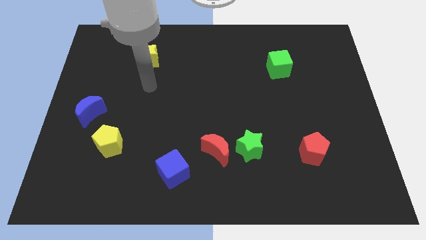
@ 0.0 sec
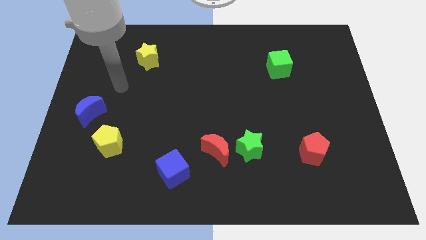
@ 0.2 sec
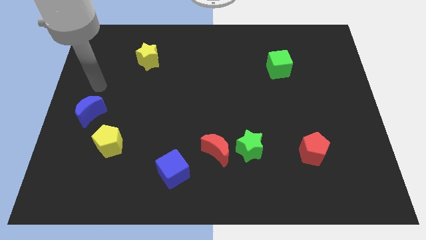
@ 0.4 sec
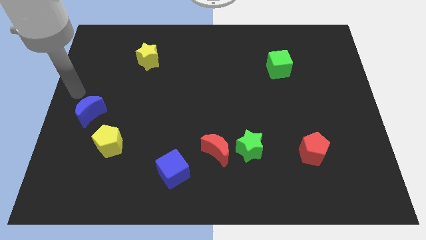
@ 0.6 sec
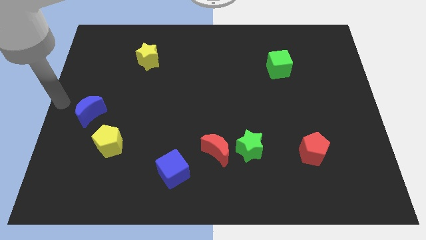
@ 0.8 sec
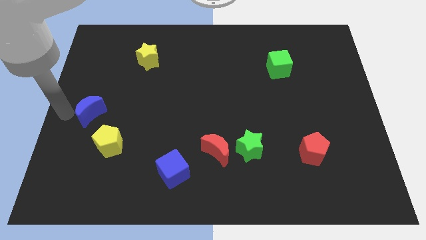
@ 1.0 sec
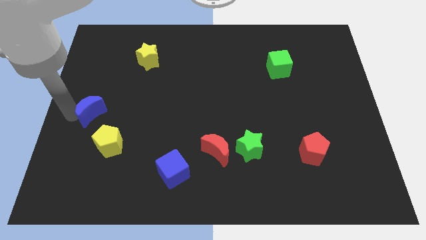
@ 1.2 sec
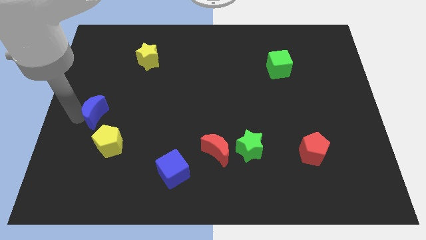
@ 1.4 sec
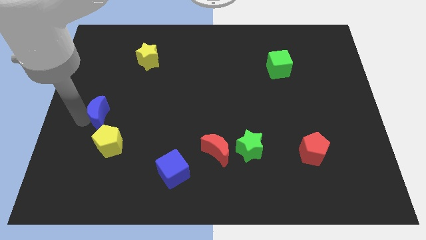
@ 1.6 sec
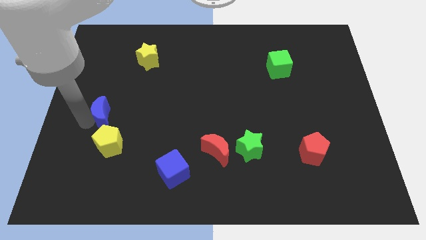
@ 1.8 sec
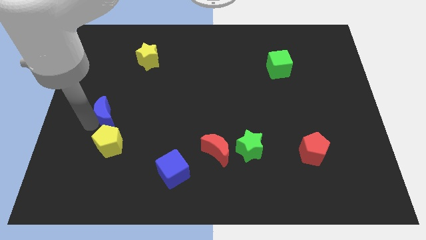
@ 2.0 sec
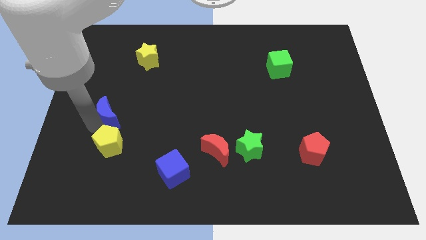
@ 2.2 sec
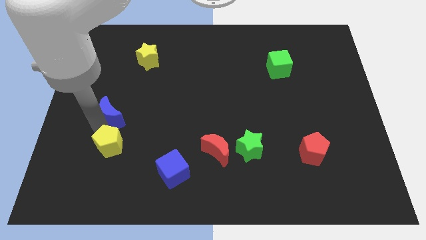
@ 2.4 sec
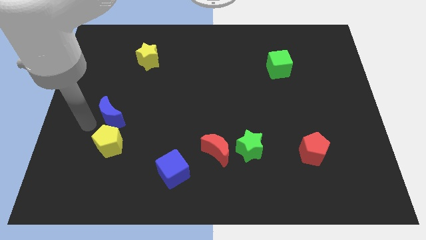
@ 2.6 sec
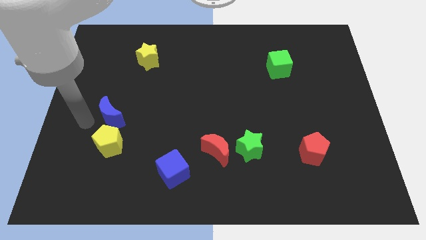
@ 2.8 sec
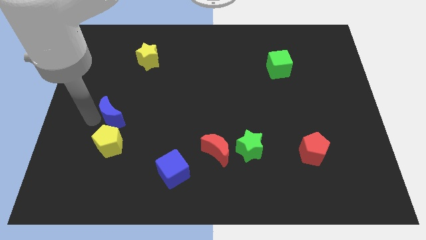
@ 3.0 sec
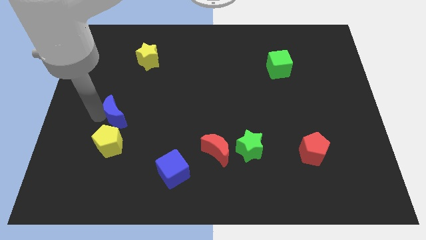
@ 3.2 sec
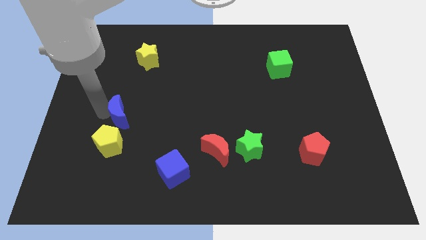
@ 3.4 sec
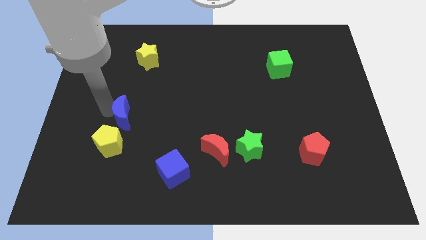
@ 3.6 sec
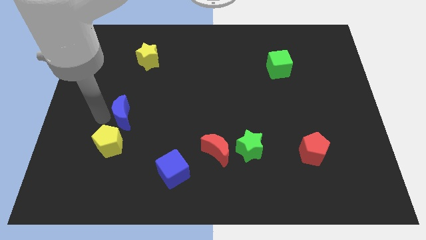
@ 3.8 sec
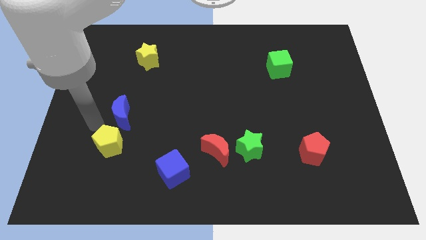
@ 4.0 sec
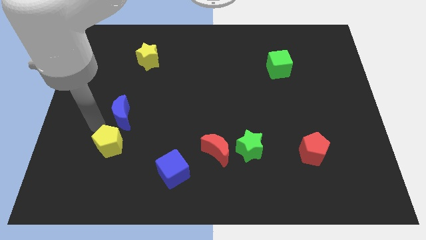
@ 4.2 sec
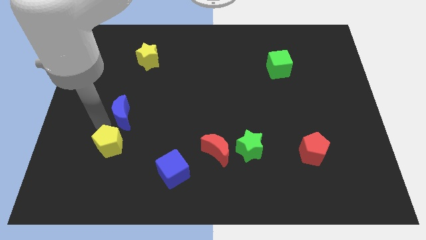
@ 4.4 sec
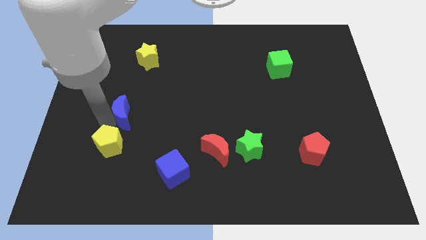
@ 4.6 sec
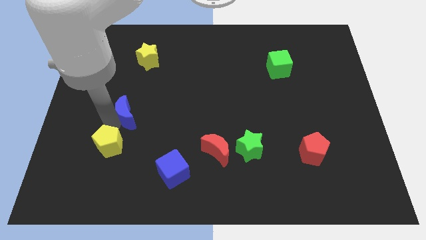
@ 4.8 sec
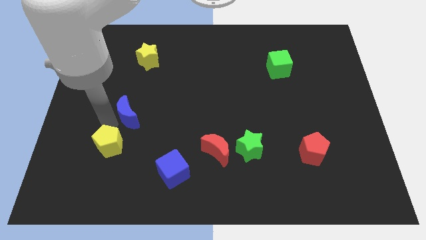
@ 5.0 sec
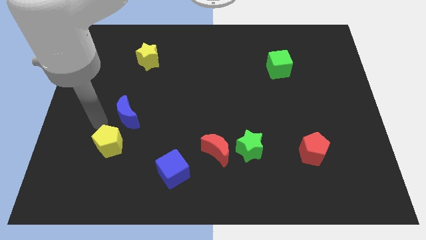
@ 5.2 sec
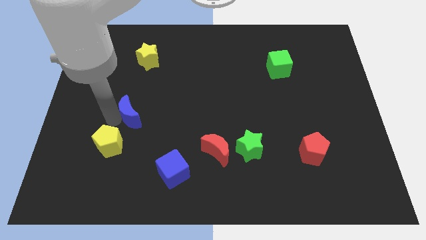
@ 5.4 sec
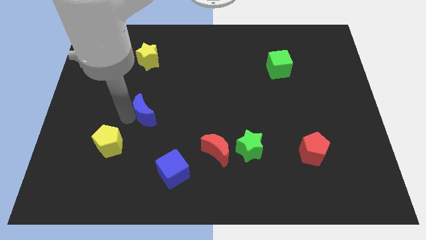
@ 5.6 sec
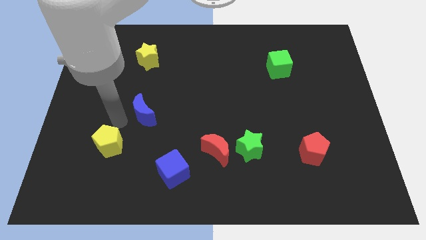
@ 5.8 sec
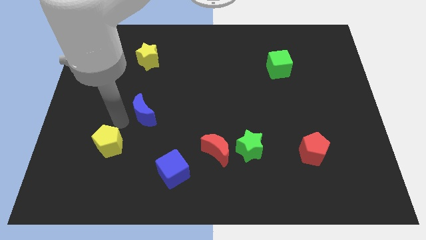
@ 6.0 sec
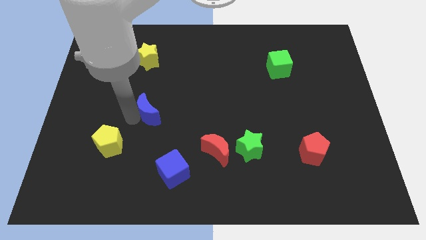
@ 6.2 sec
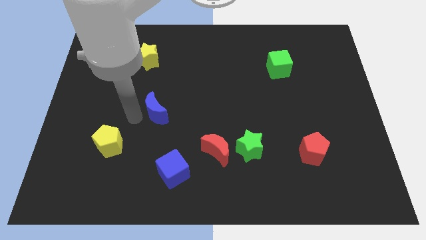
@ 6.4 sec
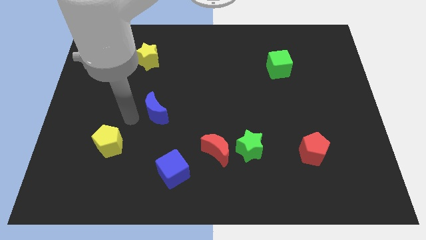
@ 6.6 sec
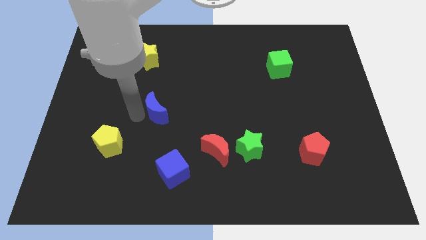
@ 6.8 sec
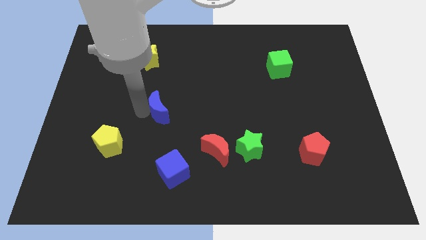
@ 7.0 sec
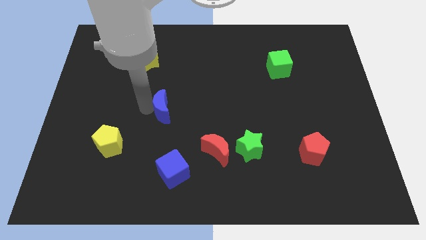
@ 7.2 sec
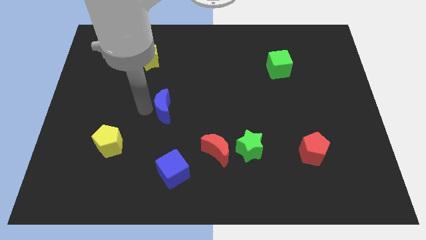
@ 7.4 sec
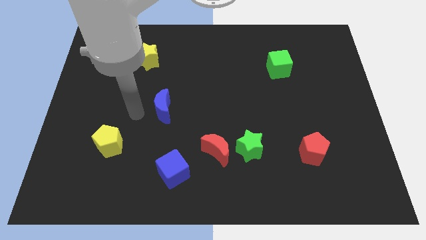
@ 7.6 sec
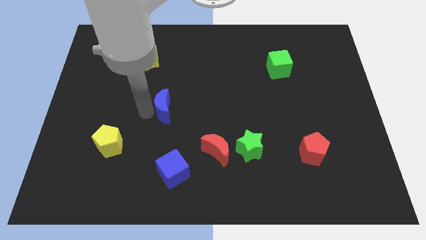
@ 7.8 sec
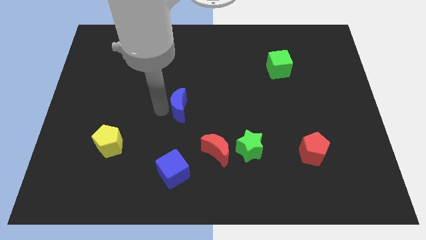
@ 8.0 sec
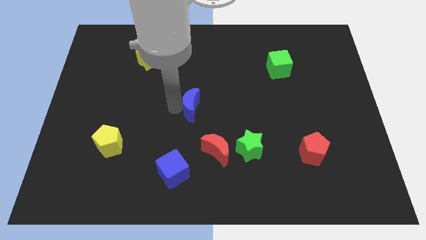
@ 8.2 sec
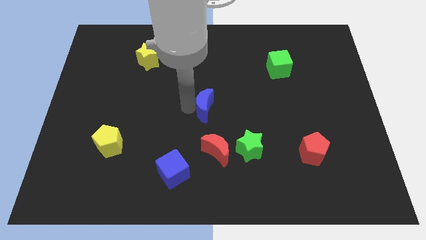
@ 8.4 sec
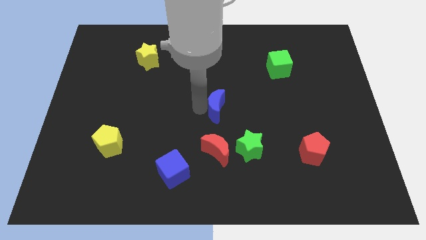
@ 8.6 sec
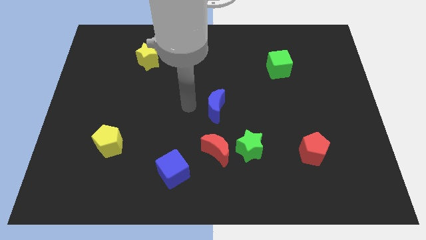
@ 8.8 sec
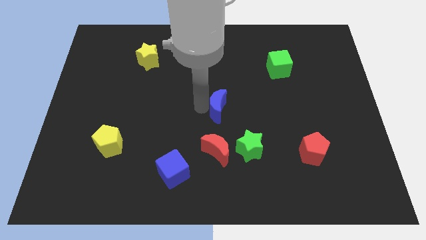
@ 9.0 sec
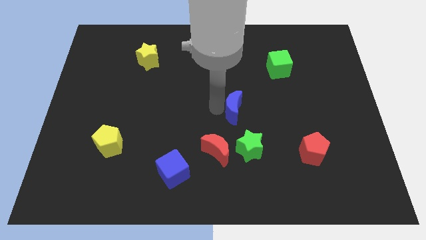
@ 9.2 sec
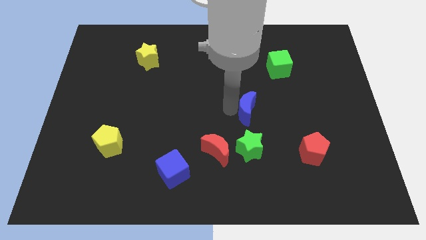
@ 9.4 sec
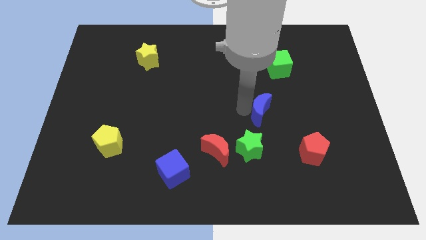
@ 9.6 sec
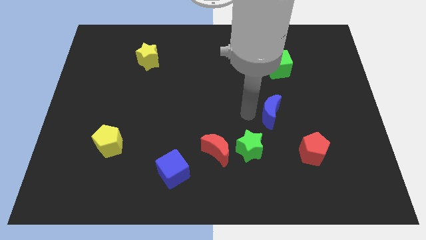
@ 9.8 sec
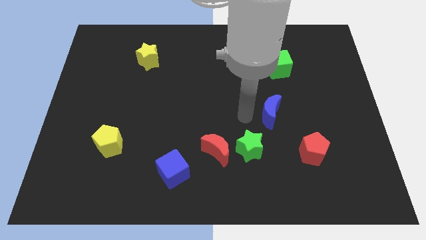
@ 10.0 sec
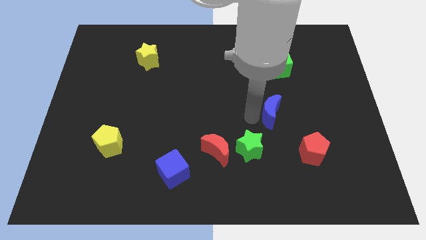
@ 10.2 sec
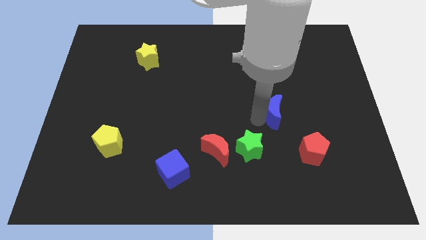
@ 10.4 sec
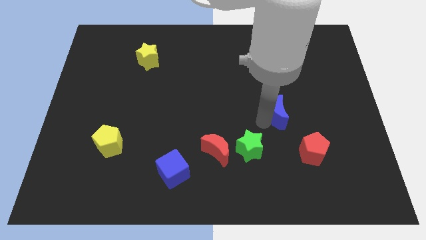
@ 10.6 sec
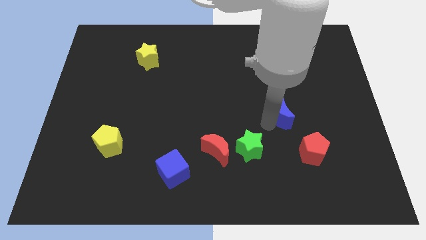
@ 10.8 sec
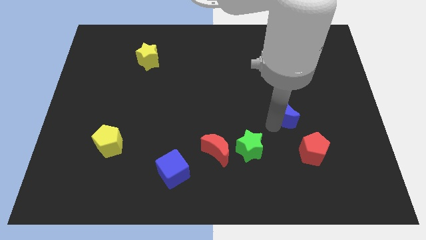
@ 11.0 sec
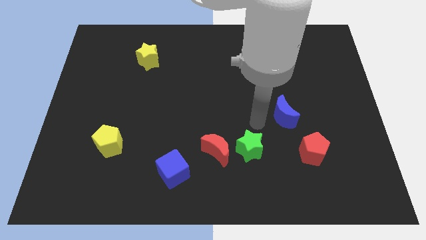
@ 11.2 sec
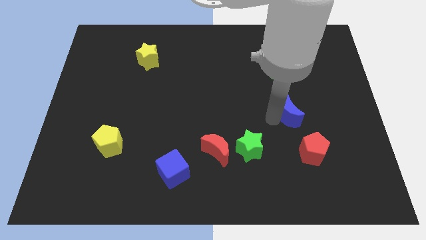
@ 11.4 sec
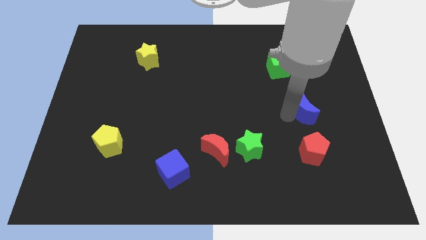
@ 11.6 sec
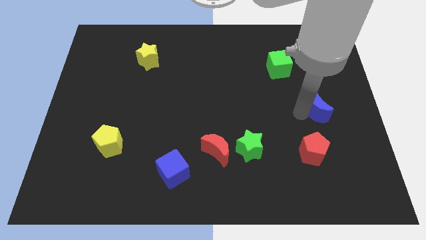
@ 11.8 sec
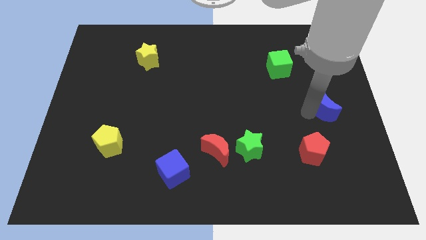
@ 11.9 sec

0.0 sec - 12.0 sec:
push the blue moon to the right side of the board
